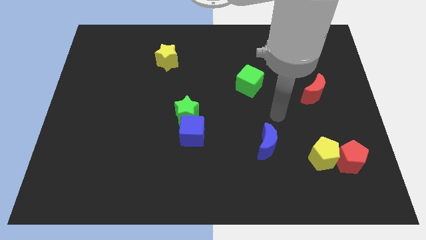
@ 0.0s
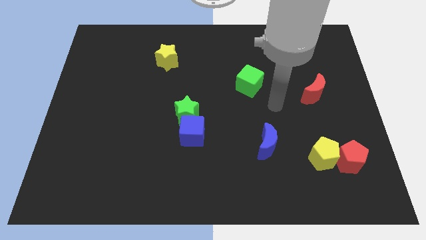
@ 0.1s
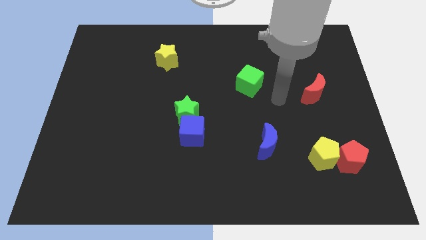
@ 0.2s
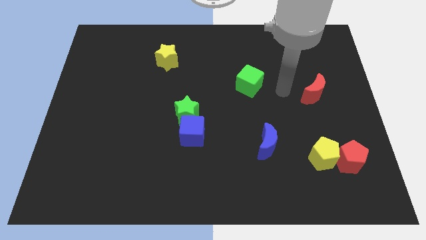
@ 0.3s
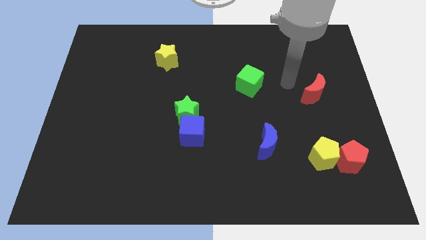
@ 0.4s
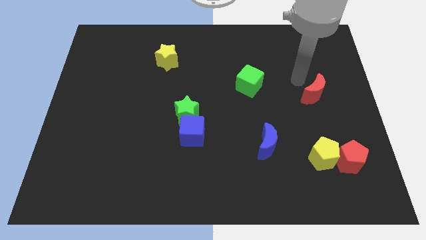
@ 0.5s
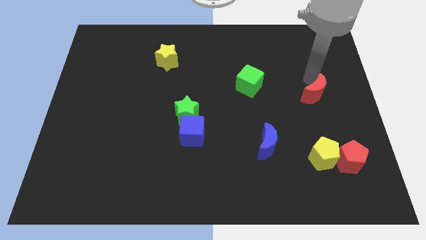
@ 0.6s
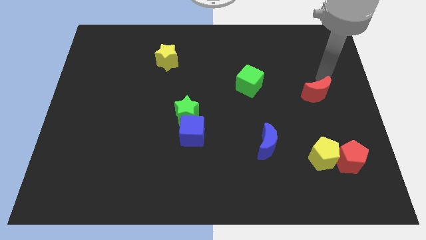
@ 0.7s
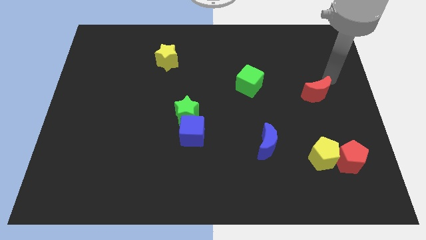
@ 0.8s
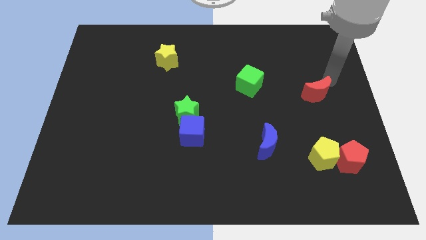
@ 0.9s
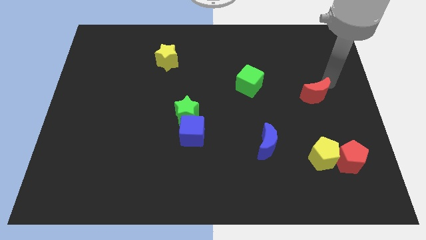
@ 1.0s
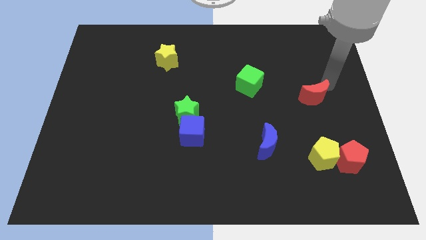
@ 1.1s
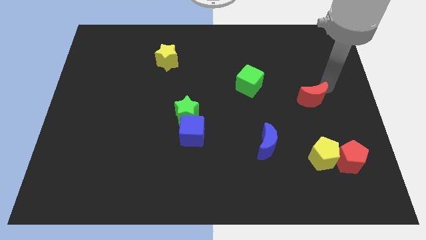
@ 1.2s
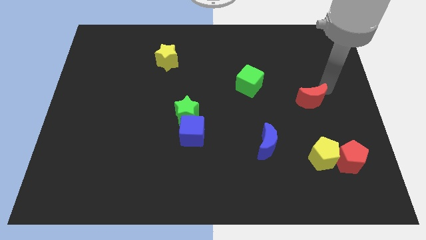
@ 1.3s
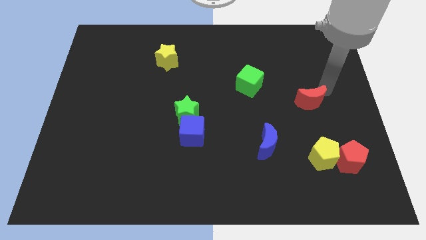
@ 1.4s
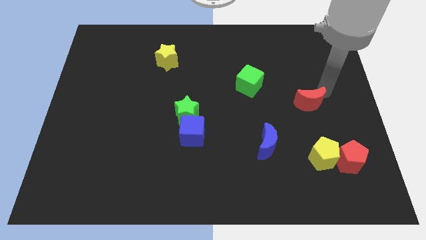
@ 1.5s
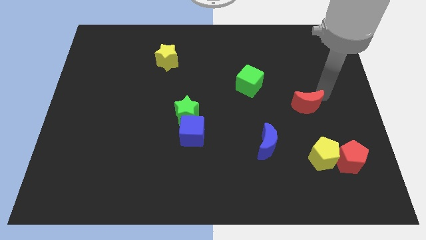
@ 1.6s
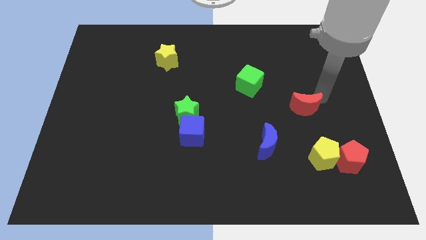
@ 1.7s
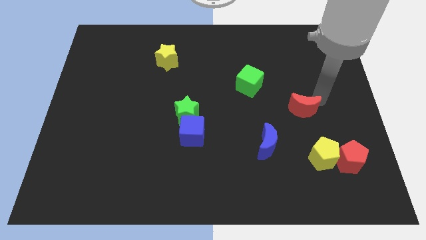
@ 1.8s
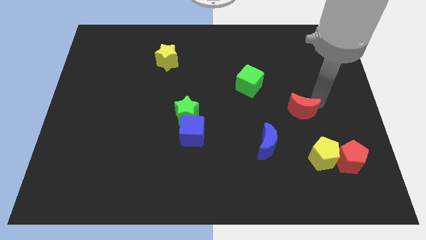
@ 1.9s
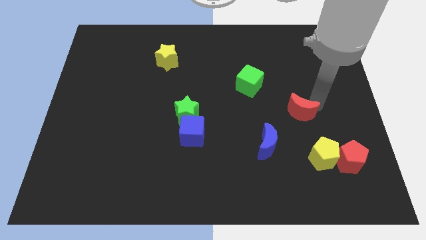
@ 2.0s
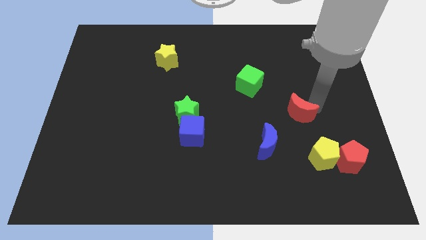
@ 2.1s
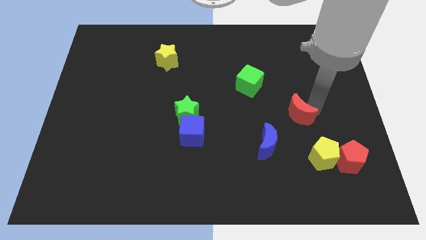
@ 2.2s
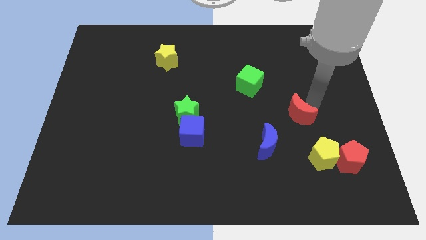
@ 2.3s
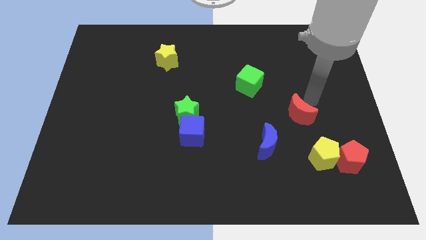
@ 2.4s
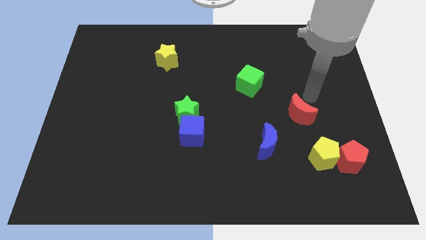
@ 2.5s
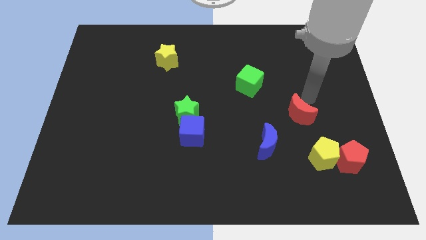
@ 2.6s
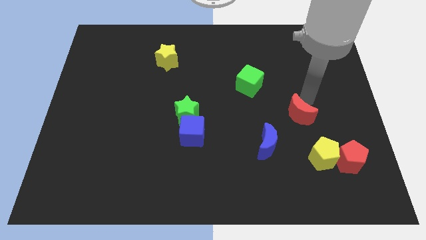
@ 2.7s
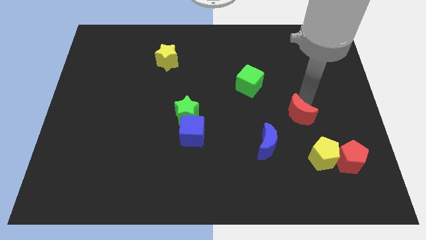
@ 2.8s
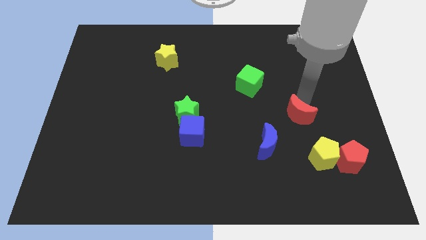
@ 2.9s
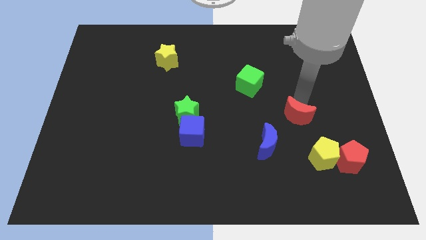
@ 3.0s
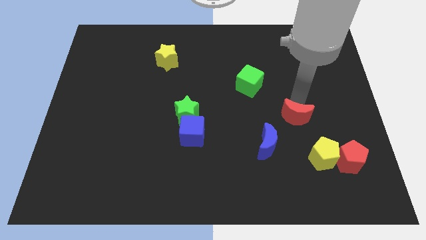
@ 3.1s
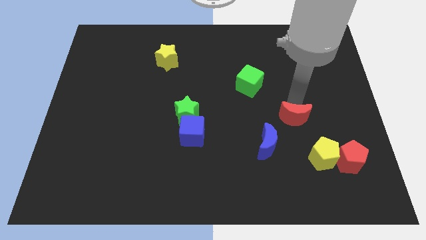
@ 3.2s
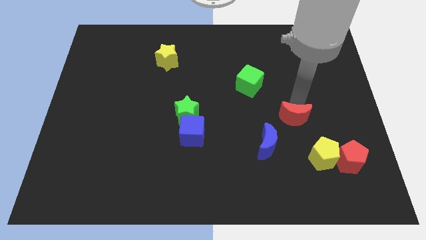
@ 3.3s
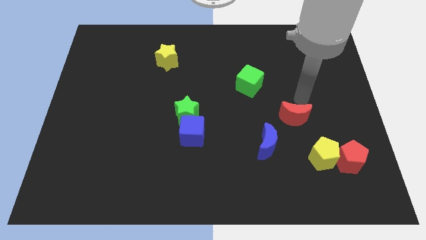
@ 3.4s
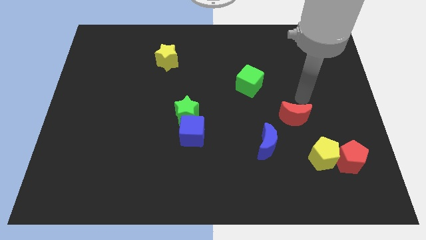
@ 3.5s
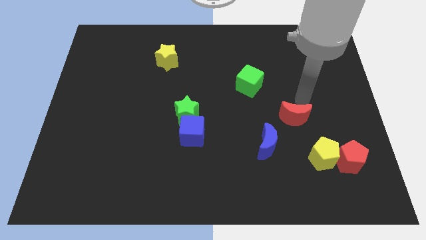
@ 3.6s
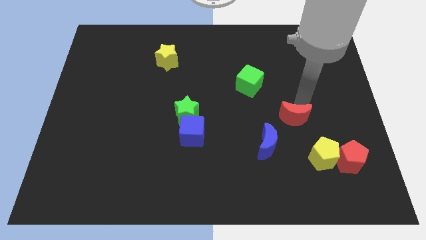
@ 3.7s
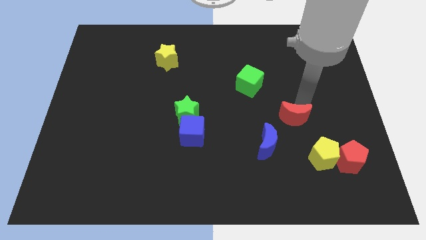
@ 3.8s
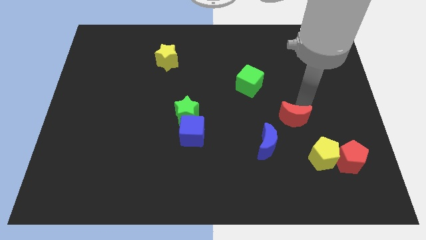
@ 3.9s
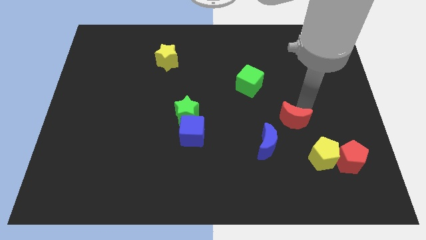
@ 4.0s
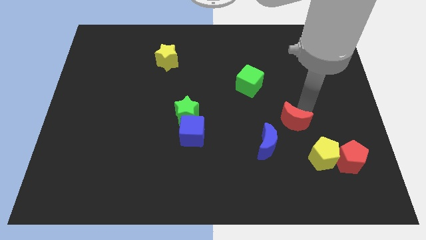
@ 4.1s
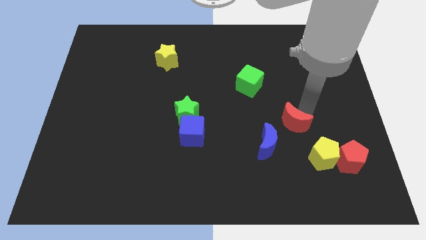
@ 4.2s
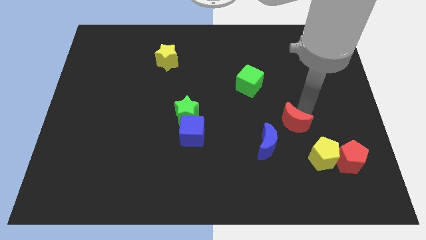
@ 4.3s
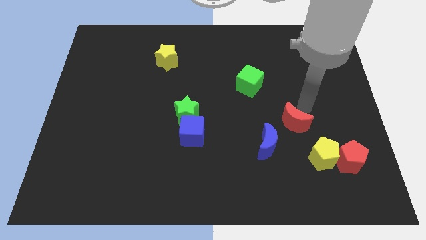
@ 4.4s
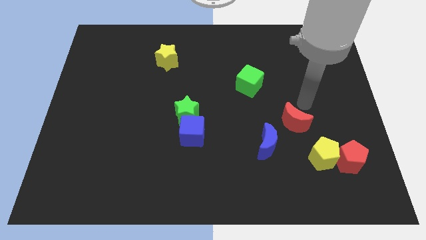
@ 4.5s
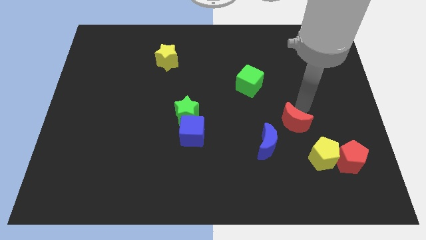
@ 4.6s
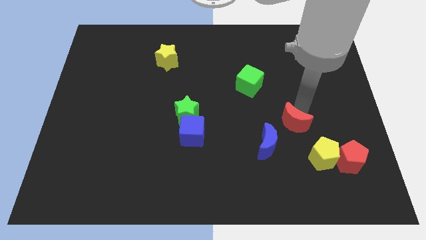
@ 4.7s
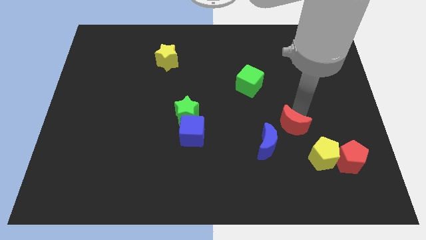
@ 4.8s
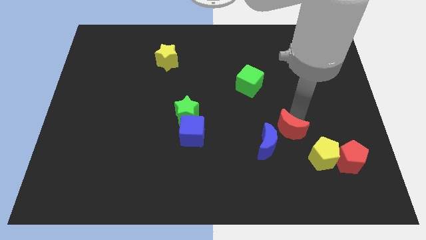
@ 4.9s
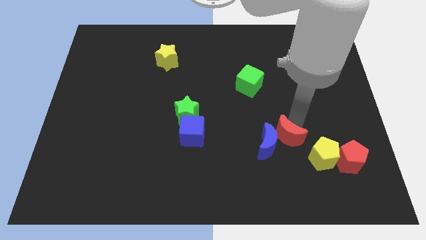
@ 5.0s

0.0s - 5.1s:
slide the red moon towards the blue moon

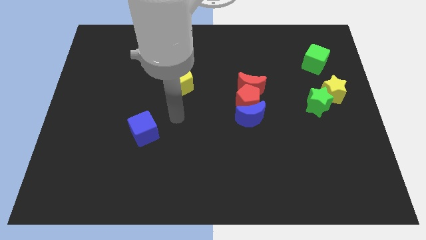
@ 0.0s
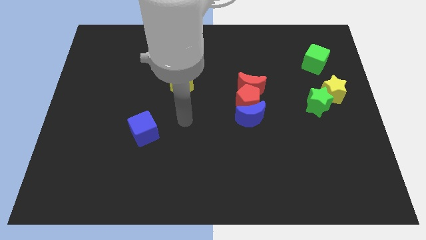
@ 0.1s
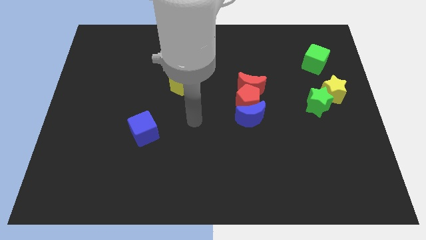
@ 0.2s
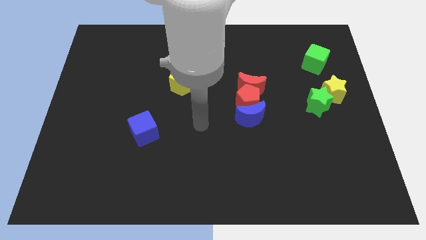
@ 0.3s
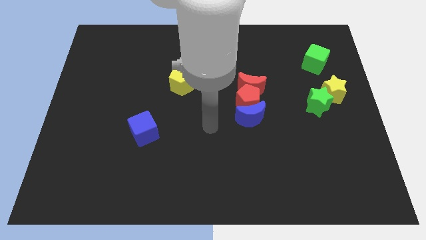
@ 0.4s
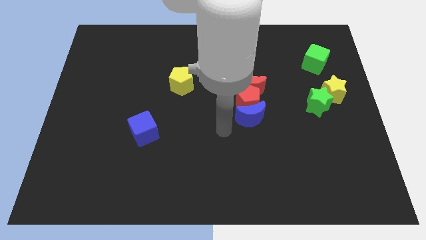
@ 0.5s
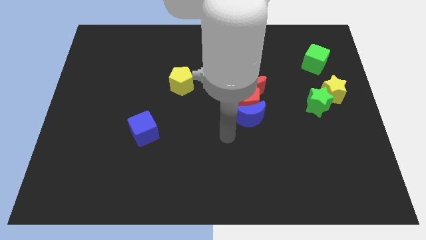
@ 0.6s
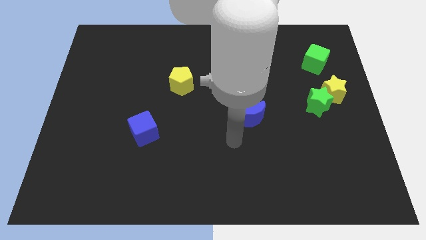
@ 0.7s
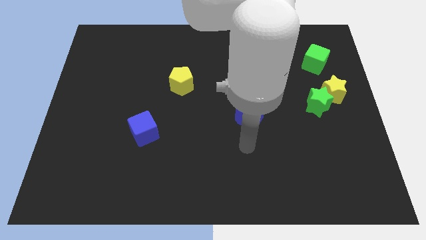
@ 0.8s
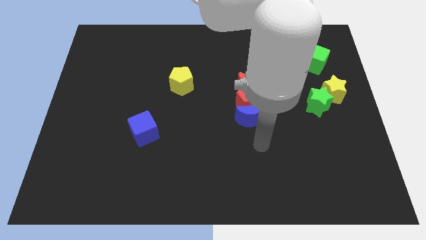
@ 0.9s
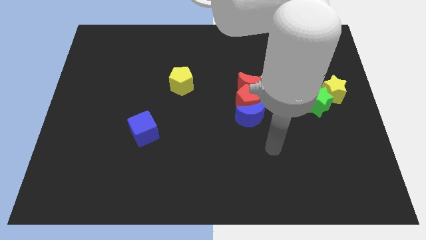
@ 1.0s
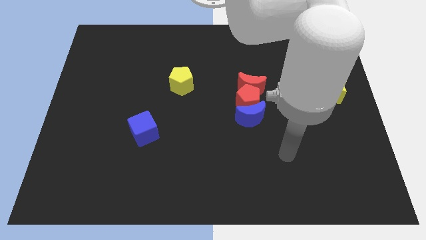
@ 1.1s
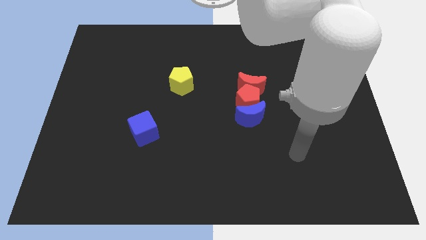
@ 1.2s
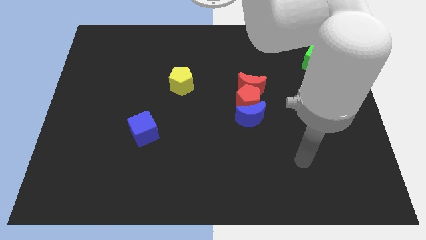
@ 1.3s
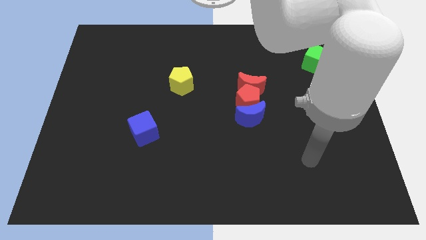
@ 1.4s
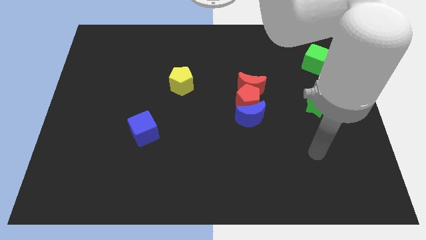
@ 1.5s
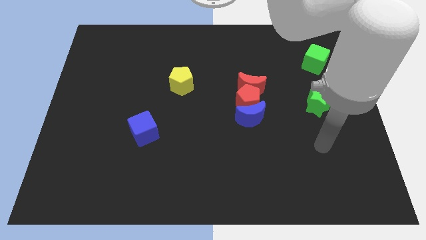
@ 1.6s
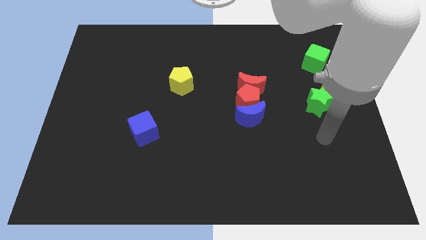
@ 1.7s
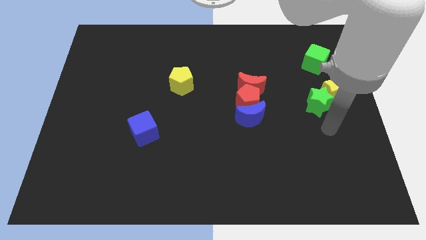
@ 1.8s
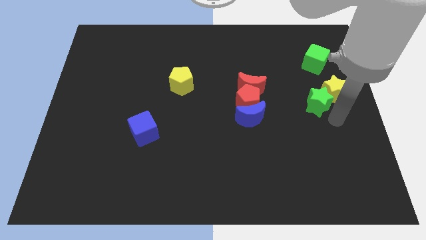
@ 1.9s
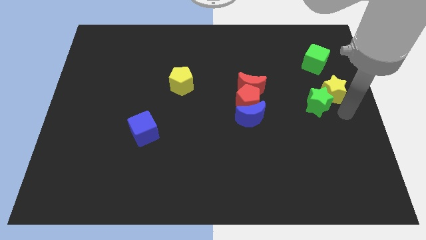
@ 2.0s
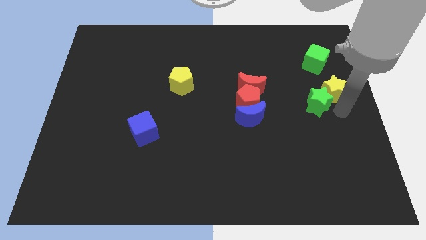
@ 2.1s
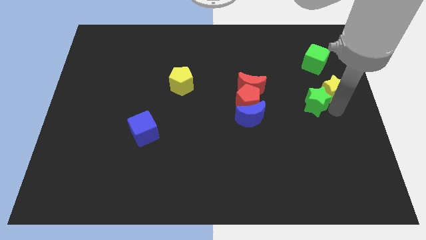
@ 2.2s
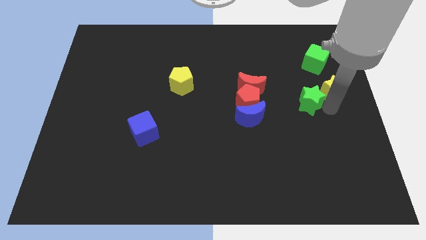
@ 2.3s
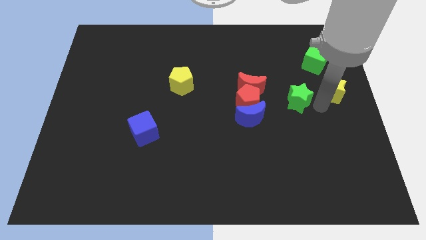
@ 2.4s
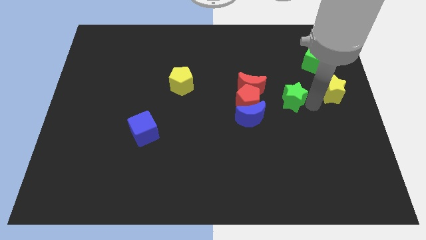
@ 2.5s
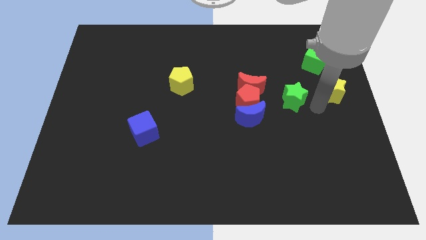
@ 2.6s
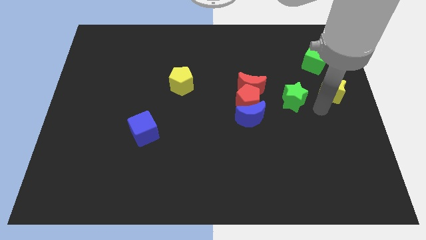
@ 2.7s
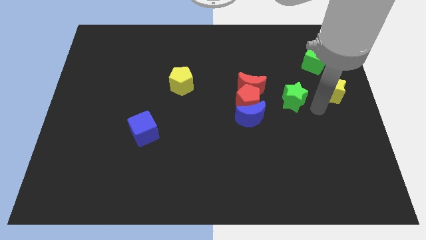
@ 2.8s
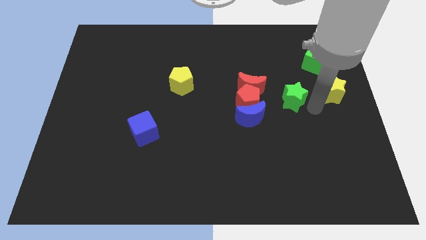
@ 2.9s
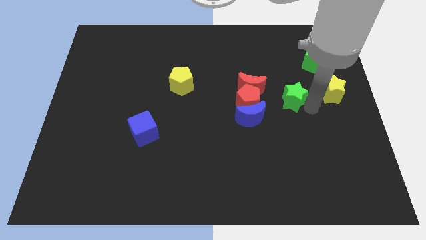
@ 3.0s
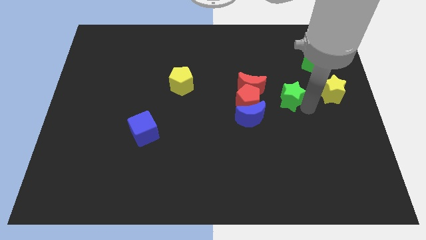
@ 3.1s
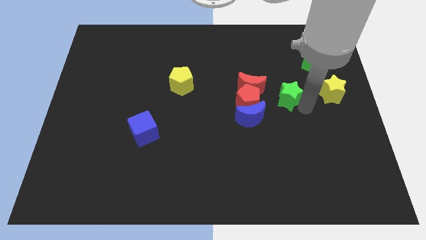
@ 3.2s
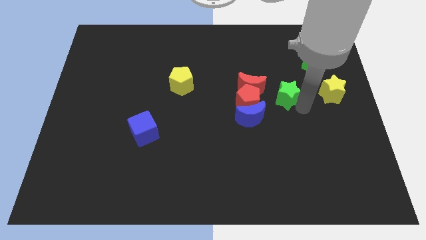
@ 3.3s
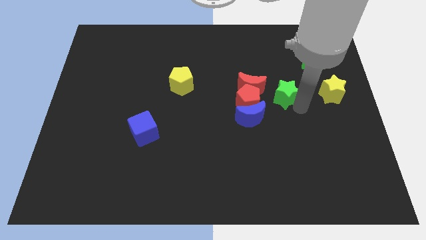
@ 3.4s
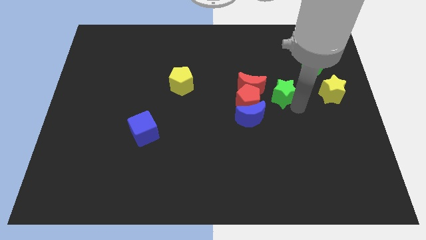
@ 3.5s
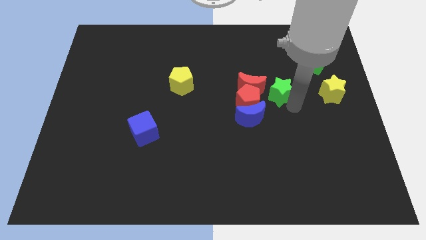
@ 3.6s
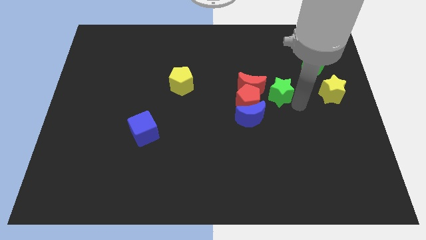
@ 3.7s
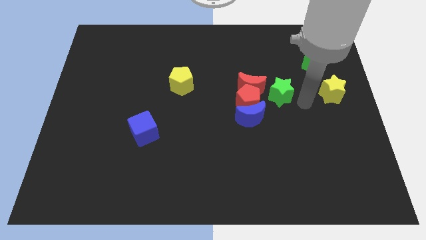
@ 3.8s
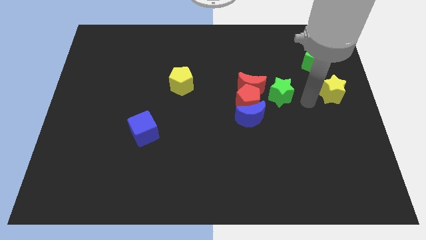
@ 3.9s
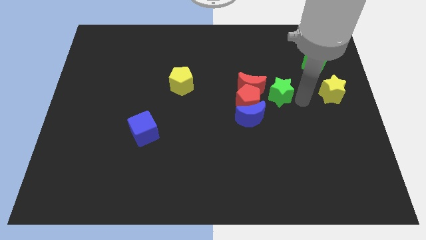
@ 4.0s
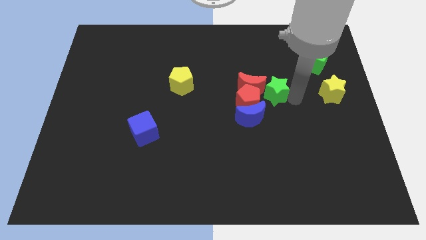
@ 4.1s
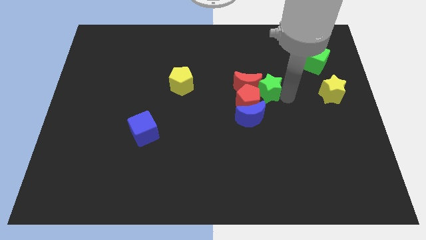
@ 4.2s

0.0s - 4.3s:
put the green star towards the red moon
